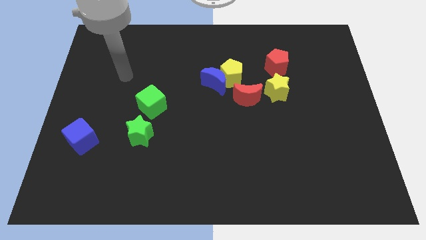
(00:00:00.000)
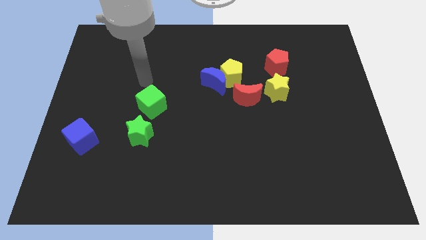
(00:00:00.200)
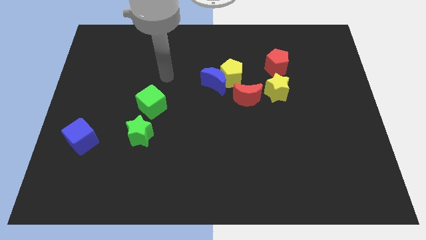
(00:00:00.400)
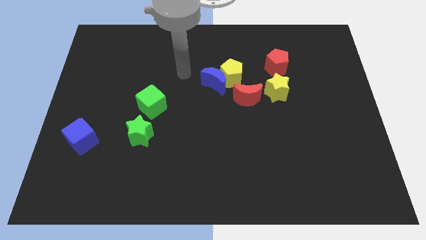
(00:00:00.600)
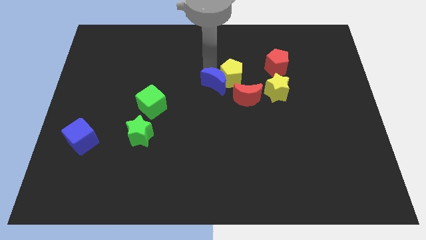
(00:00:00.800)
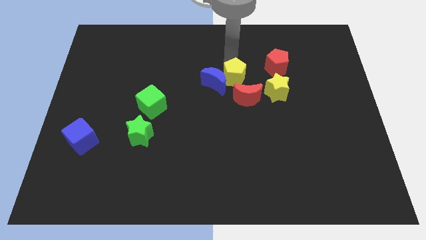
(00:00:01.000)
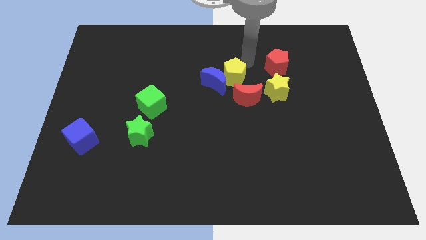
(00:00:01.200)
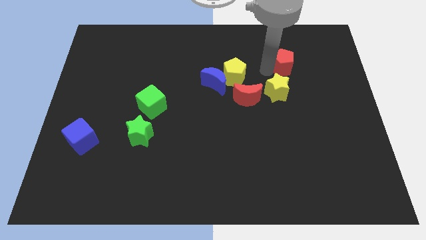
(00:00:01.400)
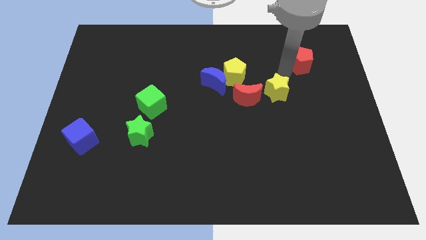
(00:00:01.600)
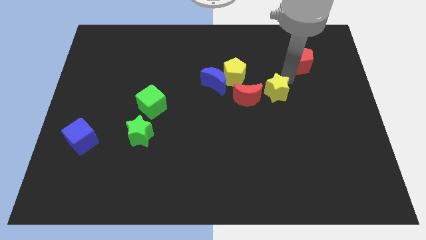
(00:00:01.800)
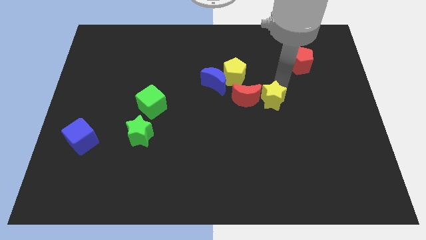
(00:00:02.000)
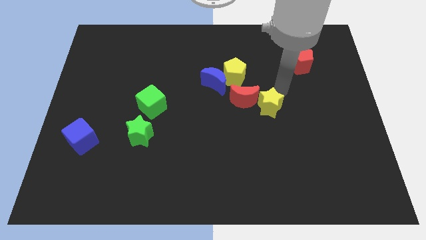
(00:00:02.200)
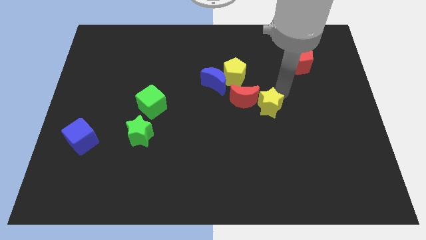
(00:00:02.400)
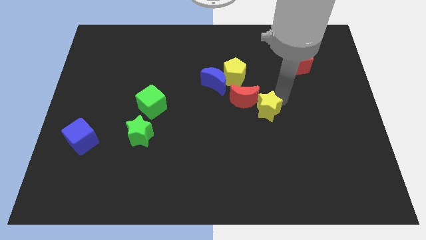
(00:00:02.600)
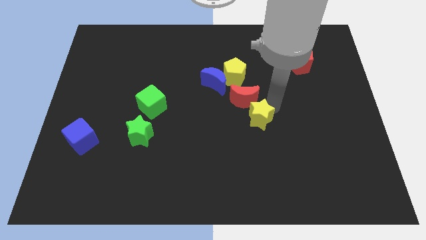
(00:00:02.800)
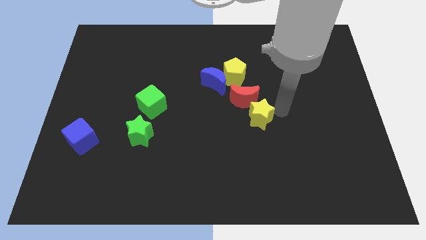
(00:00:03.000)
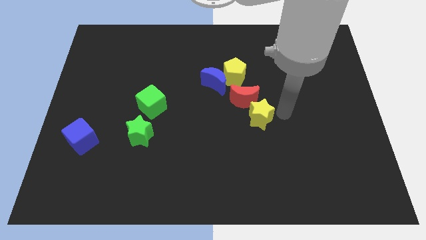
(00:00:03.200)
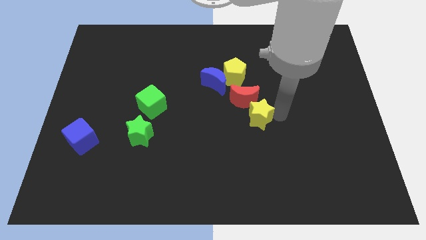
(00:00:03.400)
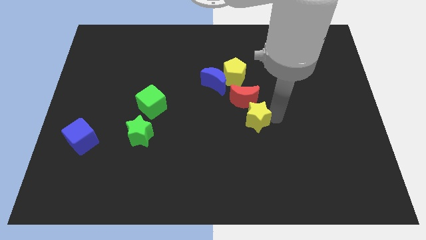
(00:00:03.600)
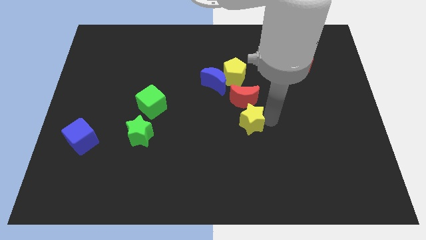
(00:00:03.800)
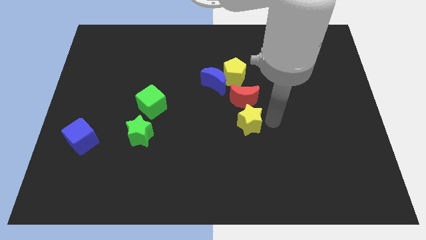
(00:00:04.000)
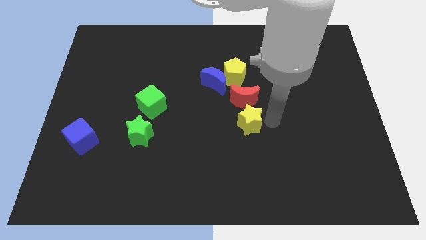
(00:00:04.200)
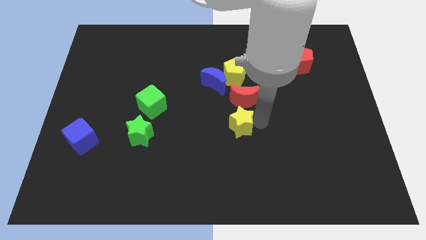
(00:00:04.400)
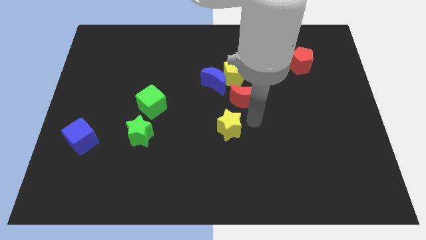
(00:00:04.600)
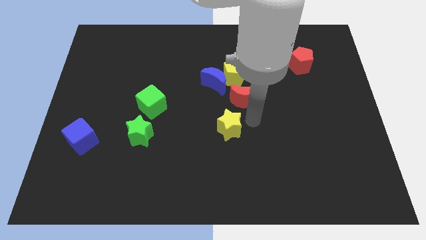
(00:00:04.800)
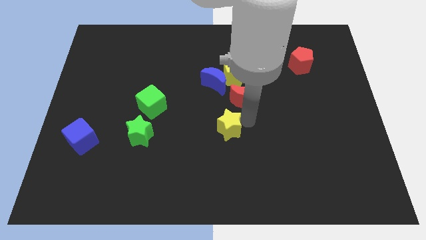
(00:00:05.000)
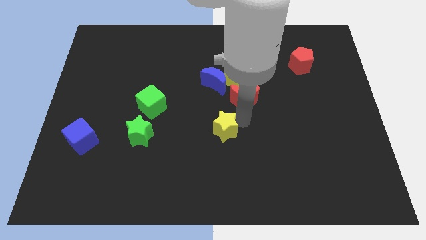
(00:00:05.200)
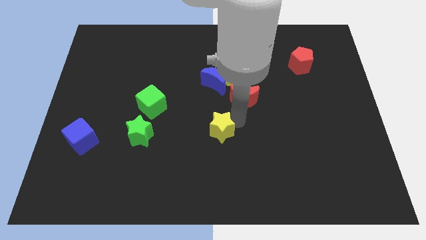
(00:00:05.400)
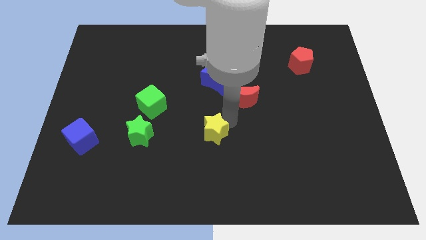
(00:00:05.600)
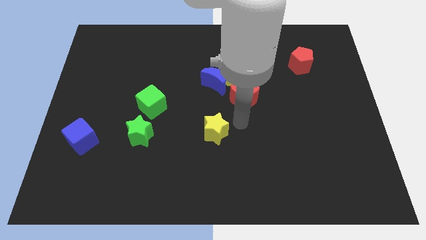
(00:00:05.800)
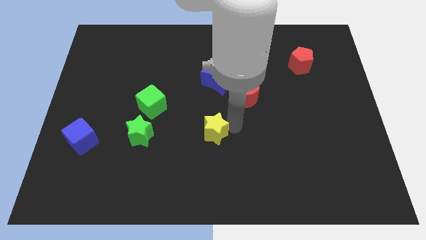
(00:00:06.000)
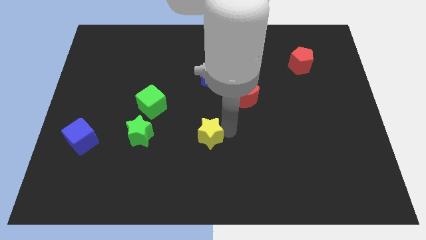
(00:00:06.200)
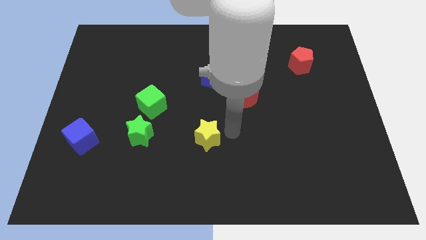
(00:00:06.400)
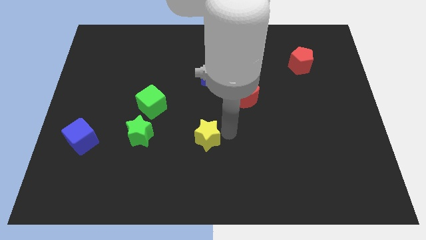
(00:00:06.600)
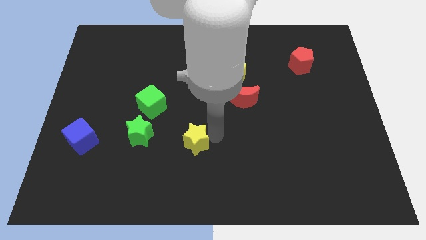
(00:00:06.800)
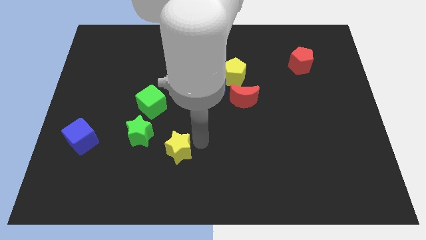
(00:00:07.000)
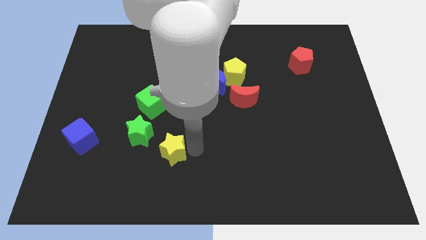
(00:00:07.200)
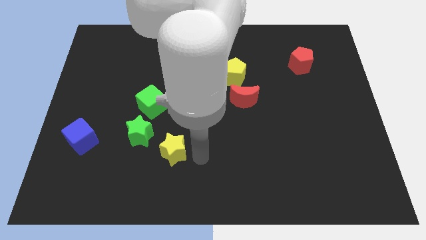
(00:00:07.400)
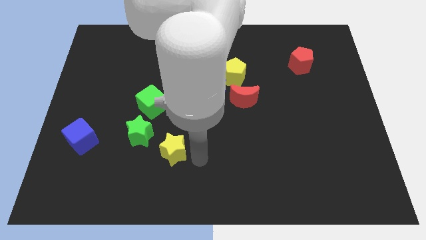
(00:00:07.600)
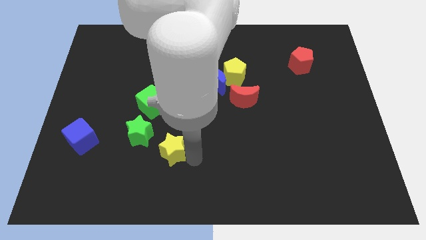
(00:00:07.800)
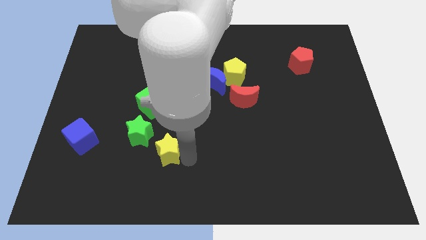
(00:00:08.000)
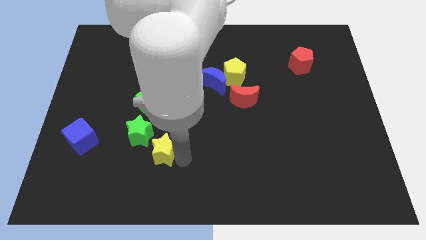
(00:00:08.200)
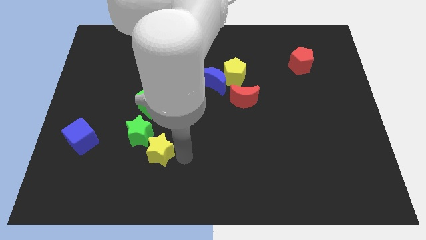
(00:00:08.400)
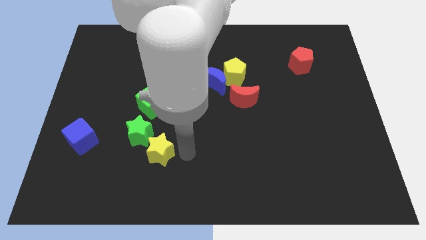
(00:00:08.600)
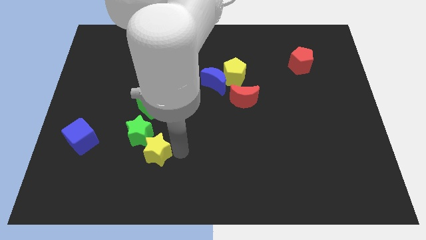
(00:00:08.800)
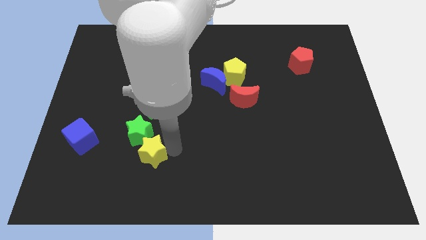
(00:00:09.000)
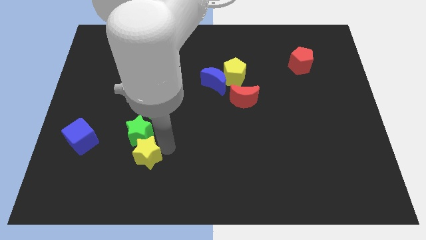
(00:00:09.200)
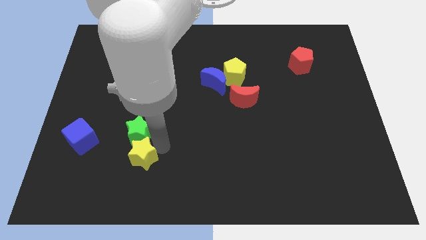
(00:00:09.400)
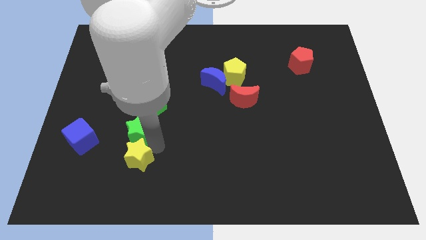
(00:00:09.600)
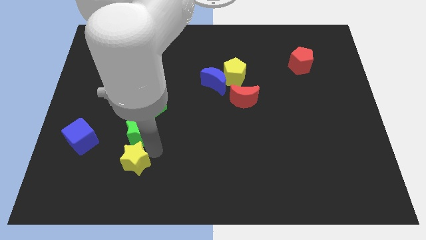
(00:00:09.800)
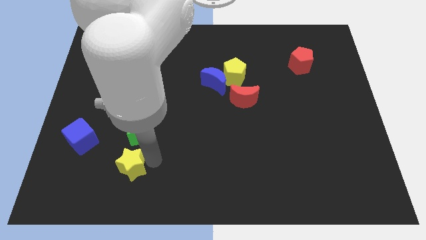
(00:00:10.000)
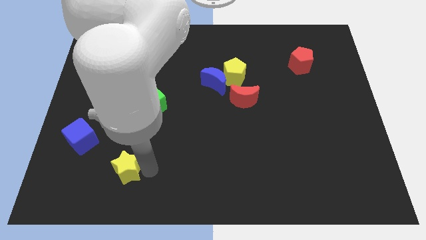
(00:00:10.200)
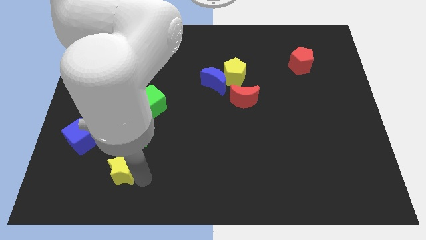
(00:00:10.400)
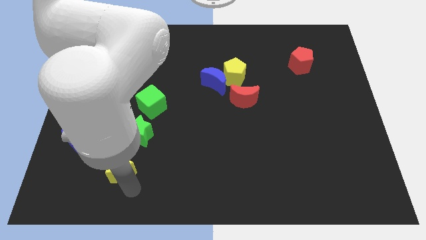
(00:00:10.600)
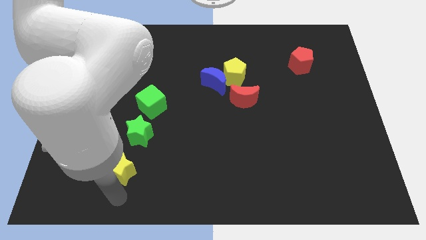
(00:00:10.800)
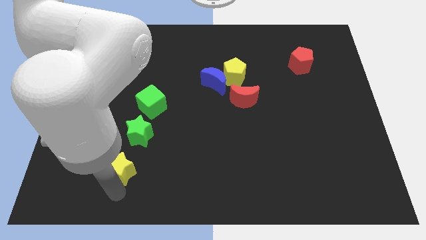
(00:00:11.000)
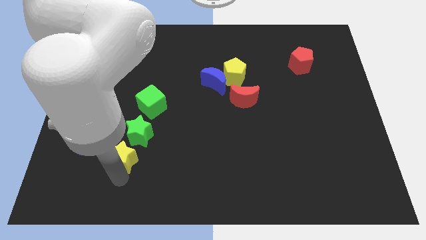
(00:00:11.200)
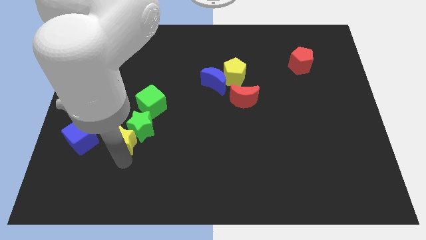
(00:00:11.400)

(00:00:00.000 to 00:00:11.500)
slide the yellow star diagonally down and to the left of the green cube

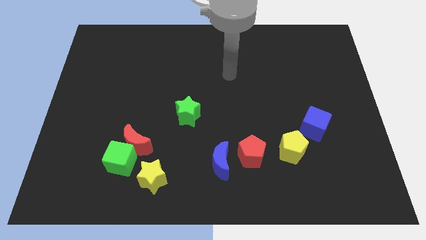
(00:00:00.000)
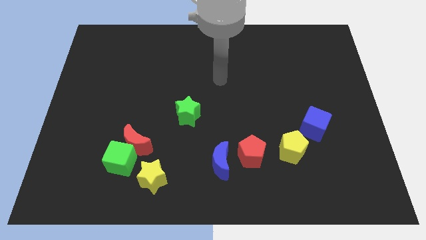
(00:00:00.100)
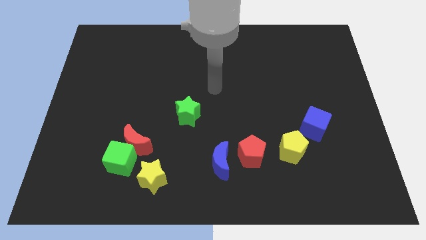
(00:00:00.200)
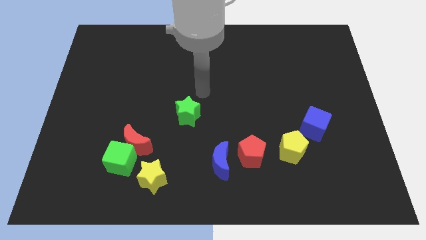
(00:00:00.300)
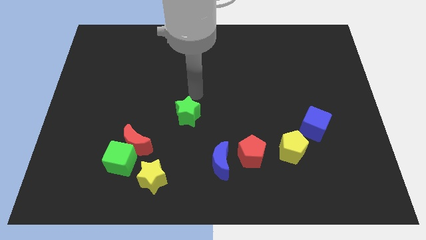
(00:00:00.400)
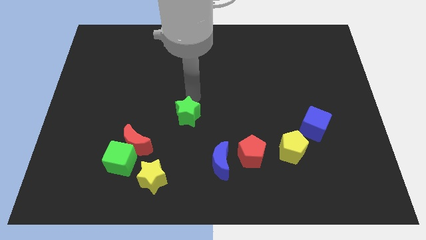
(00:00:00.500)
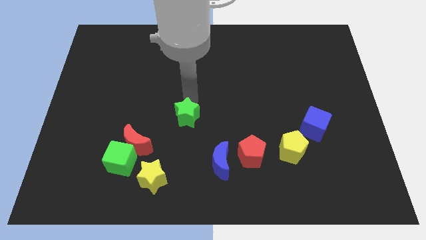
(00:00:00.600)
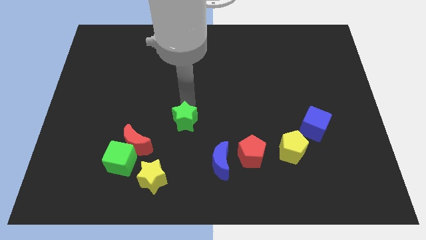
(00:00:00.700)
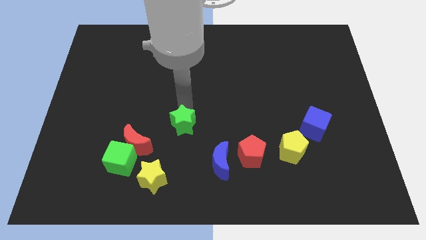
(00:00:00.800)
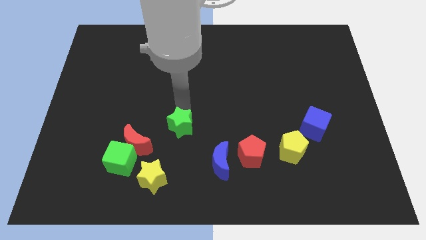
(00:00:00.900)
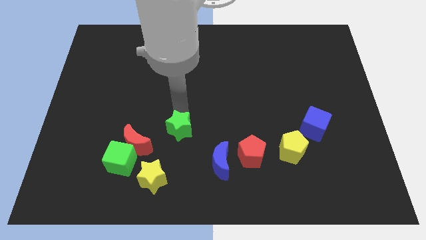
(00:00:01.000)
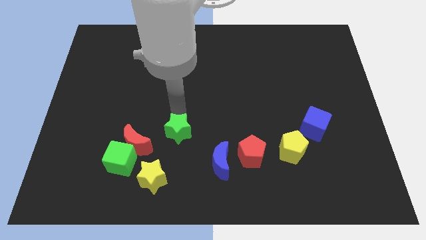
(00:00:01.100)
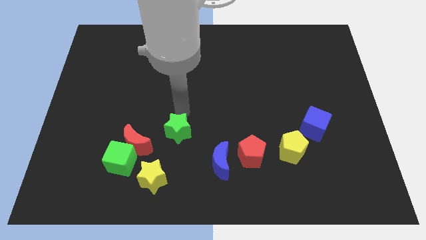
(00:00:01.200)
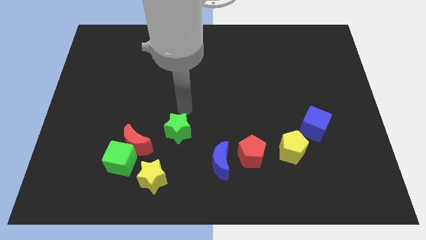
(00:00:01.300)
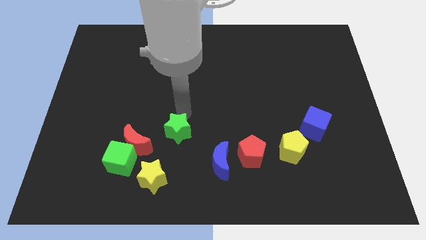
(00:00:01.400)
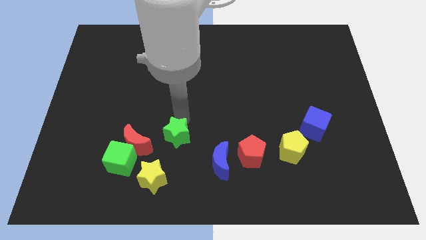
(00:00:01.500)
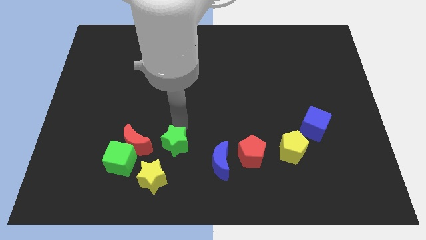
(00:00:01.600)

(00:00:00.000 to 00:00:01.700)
move the green star just right of the green cube
